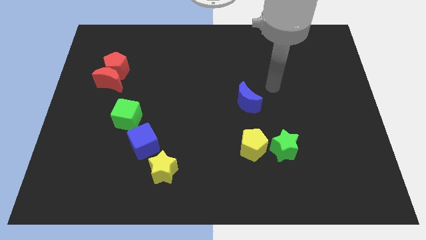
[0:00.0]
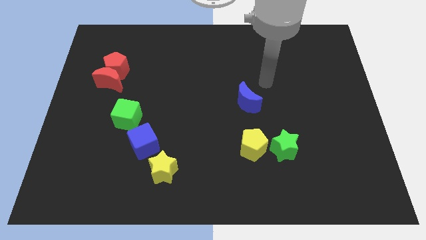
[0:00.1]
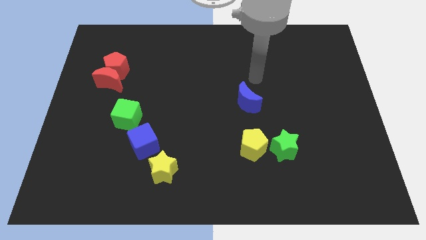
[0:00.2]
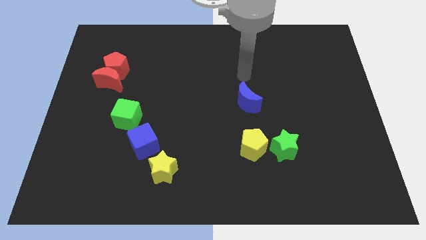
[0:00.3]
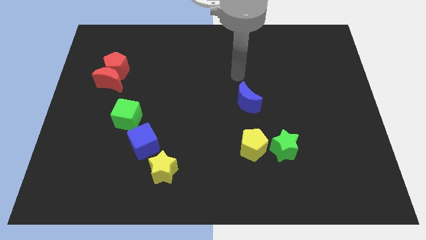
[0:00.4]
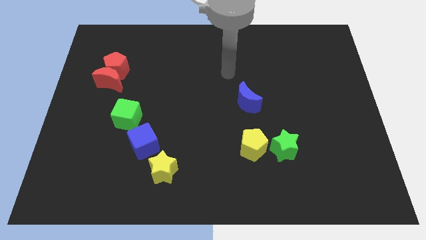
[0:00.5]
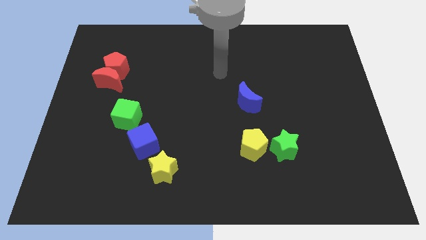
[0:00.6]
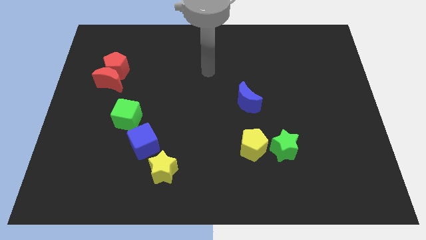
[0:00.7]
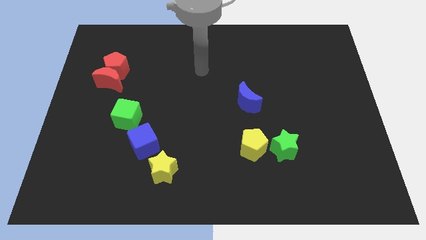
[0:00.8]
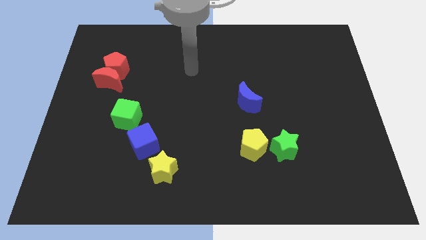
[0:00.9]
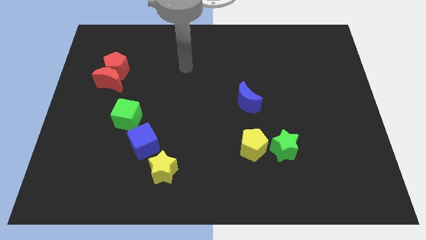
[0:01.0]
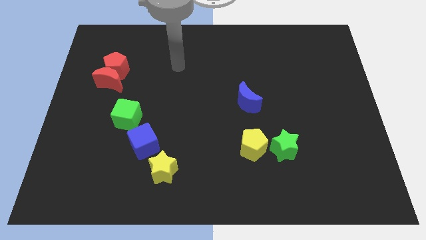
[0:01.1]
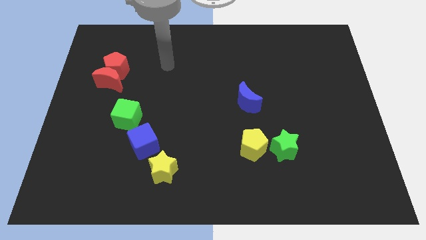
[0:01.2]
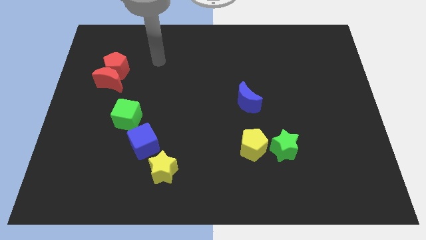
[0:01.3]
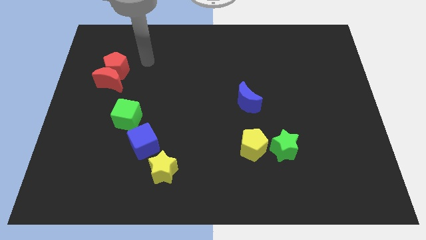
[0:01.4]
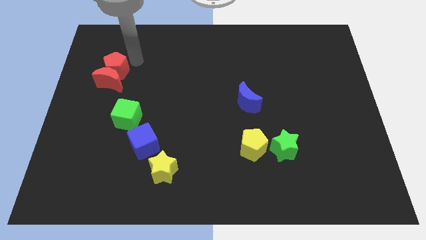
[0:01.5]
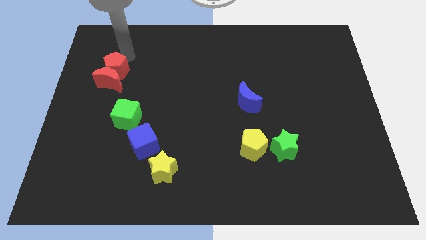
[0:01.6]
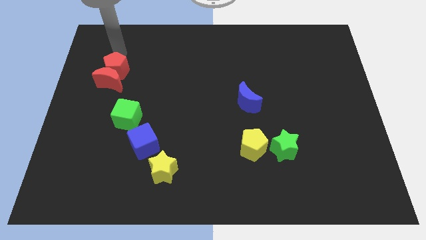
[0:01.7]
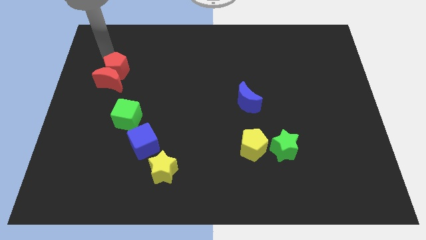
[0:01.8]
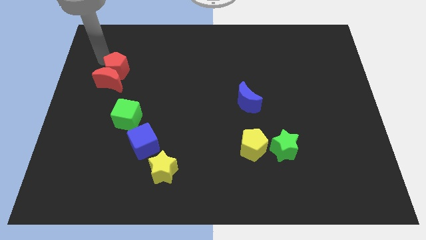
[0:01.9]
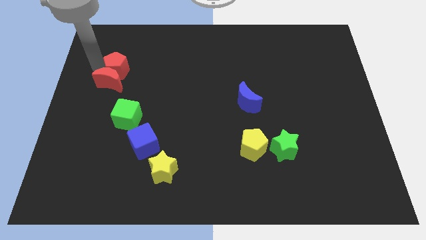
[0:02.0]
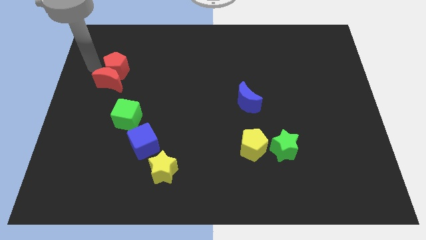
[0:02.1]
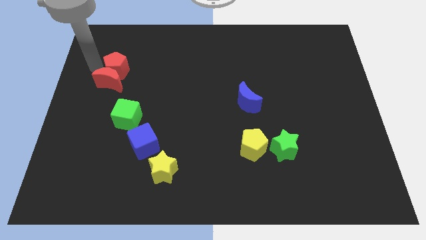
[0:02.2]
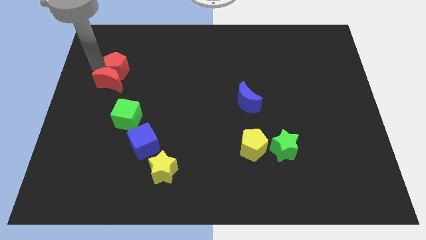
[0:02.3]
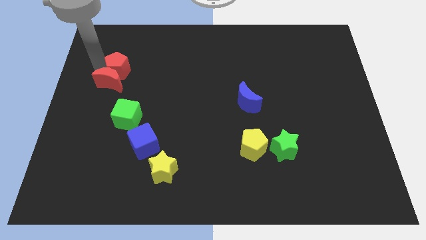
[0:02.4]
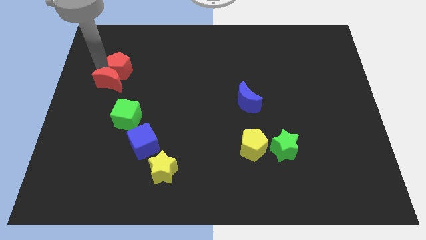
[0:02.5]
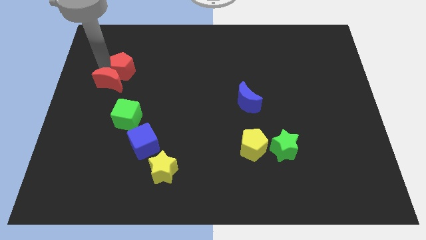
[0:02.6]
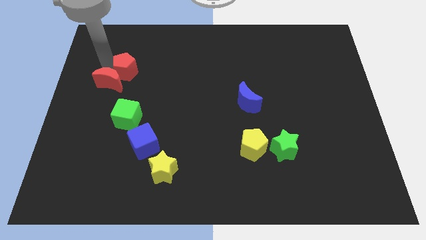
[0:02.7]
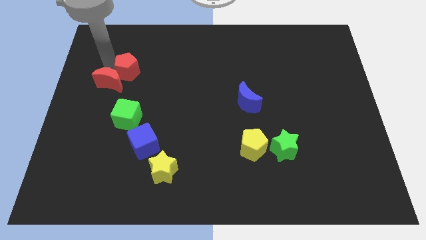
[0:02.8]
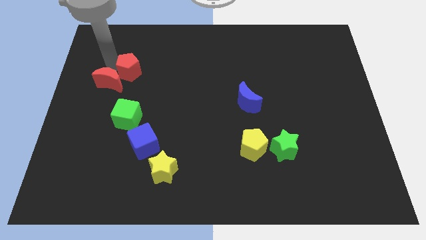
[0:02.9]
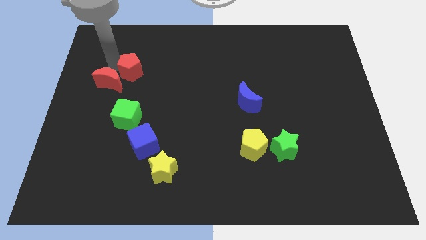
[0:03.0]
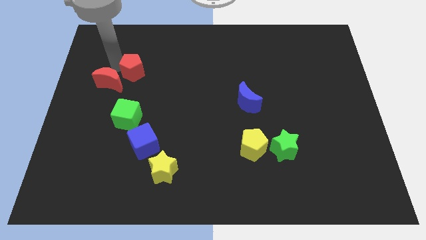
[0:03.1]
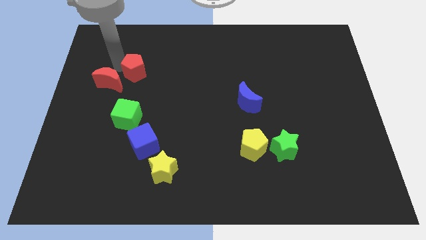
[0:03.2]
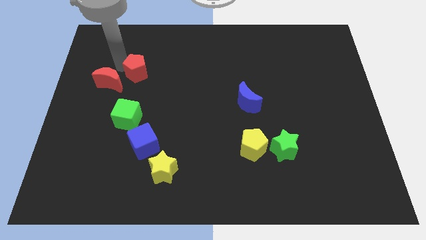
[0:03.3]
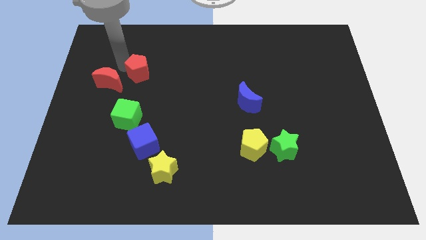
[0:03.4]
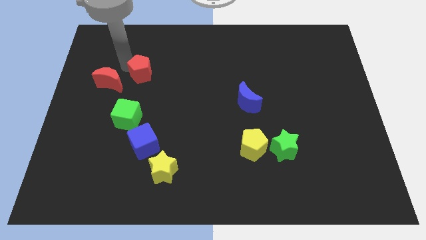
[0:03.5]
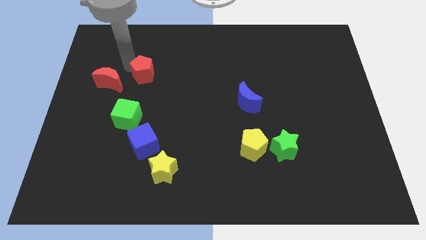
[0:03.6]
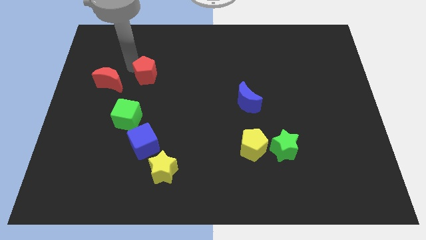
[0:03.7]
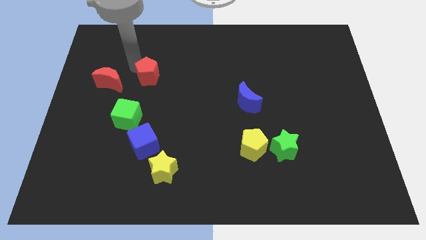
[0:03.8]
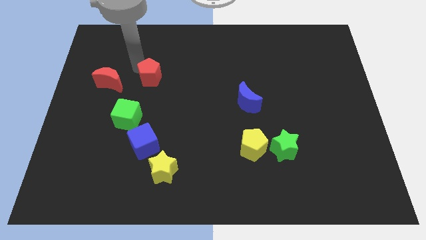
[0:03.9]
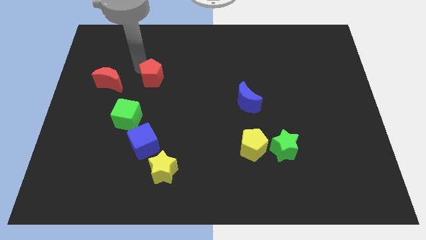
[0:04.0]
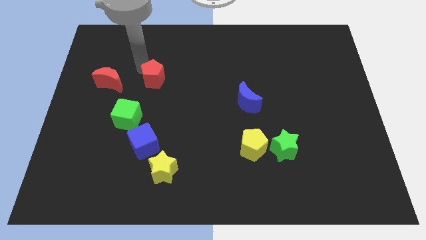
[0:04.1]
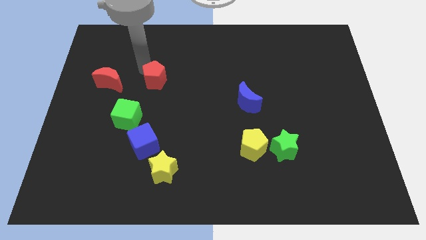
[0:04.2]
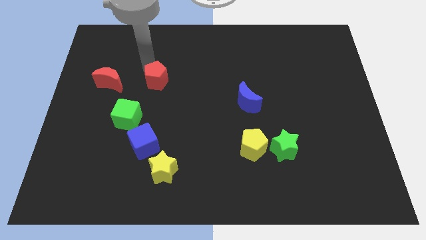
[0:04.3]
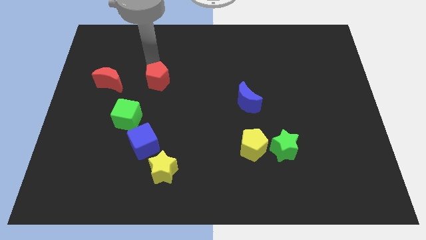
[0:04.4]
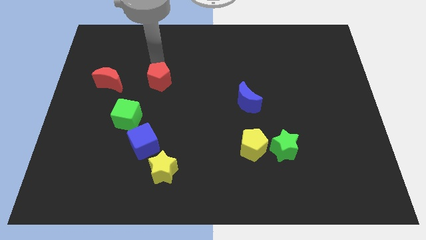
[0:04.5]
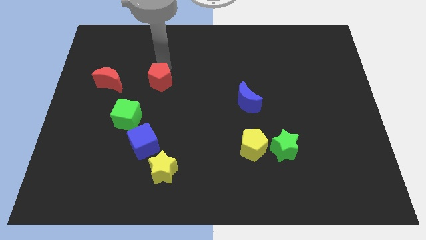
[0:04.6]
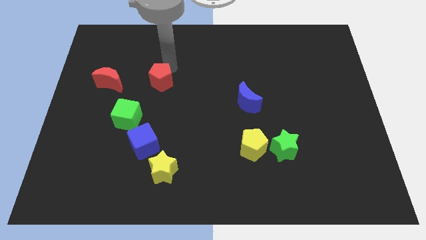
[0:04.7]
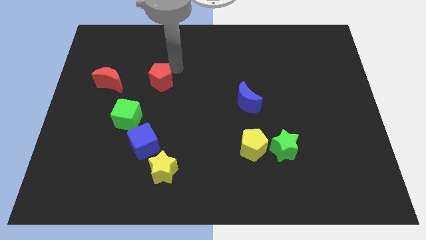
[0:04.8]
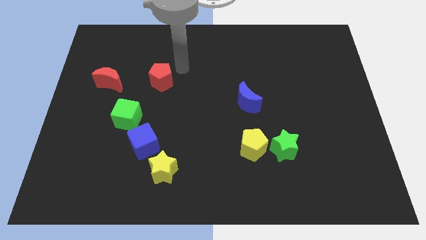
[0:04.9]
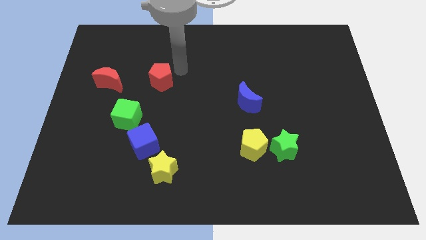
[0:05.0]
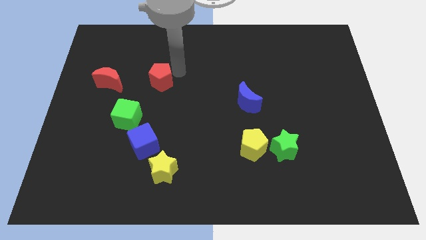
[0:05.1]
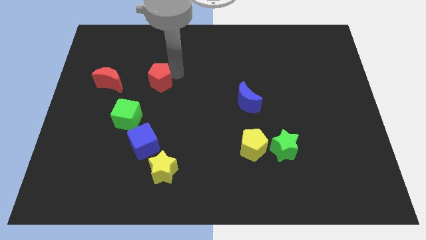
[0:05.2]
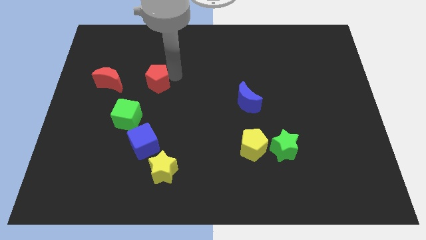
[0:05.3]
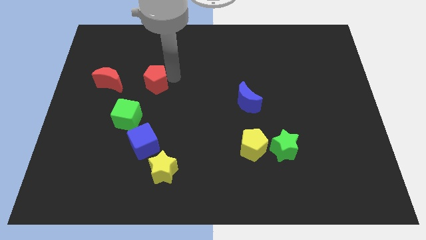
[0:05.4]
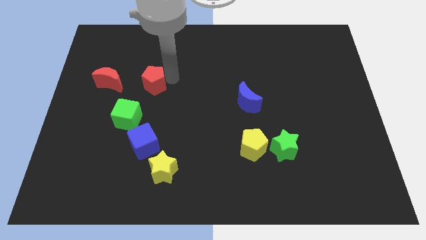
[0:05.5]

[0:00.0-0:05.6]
move the red pentagon to the top right side of the green cube

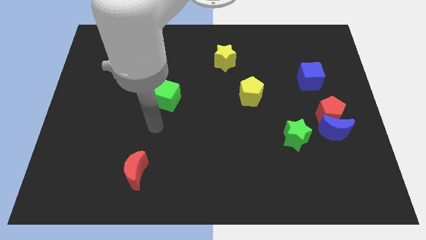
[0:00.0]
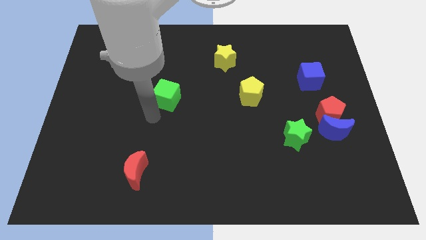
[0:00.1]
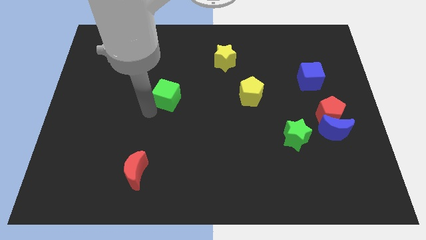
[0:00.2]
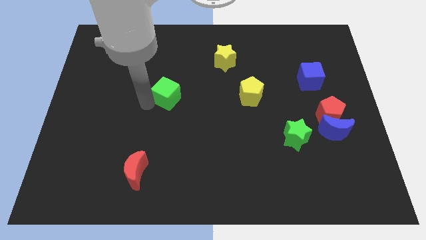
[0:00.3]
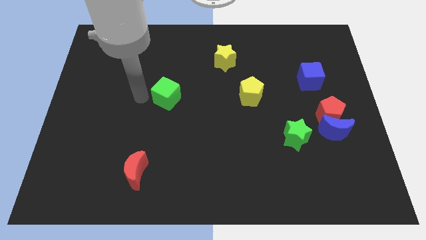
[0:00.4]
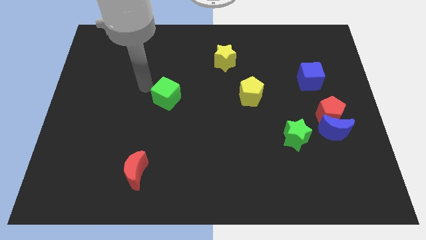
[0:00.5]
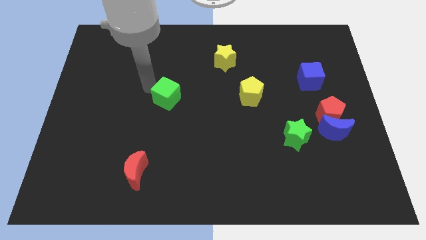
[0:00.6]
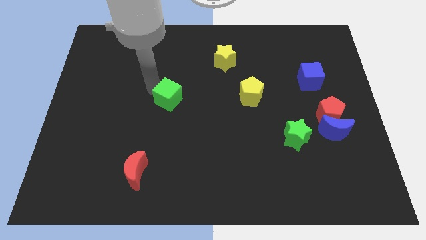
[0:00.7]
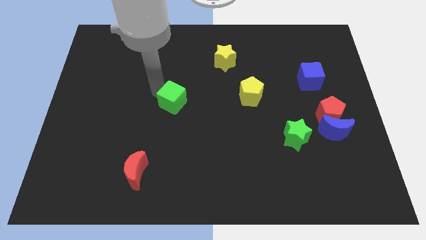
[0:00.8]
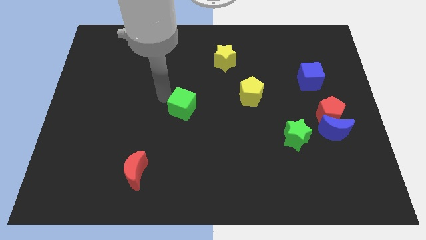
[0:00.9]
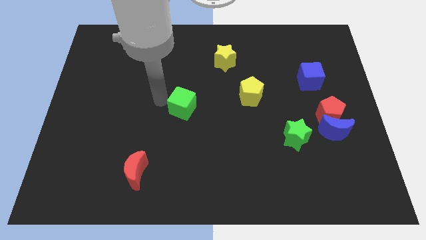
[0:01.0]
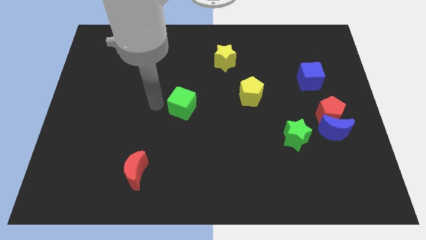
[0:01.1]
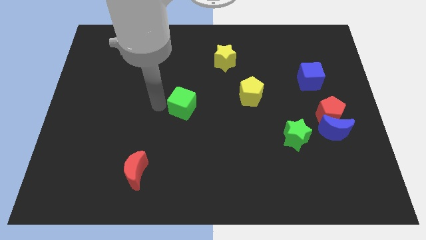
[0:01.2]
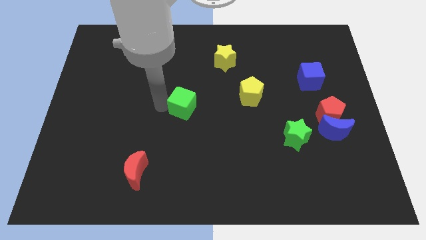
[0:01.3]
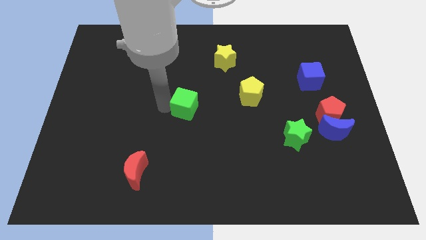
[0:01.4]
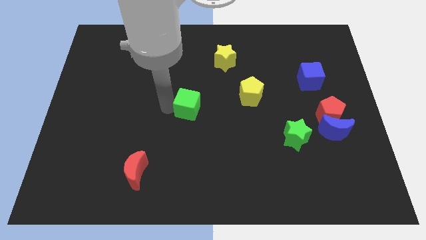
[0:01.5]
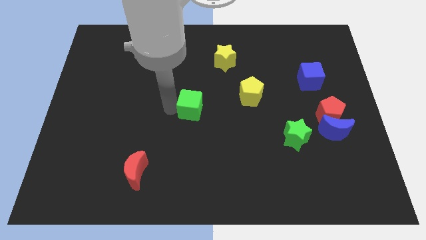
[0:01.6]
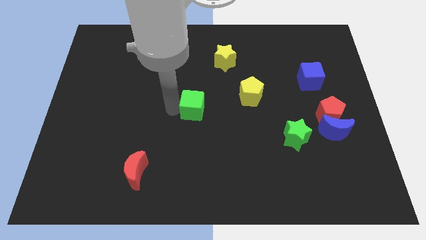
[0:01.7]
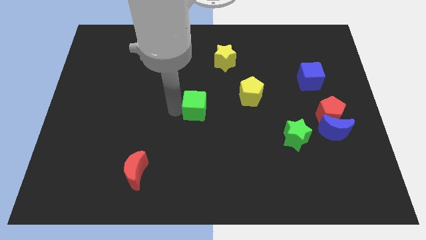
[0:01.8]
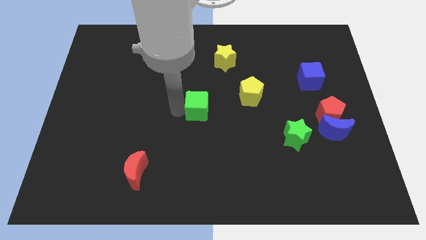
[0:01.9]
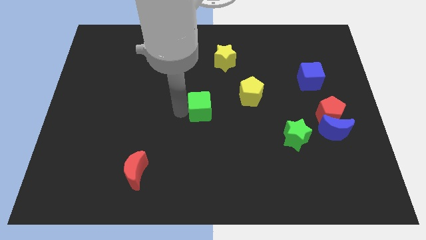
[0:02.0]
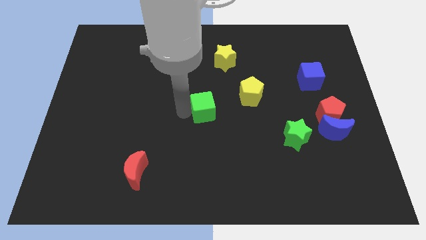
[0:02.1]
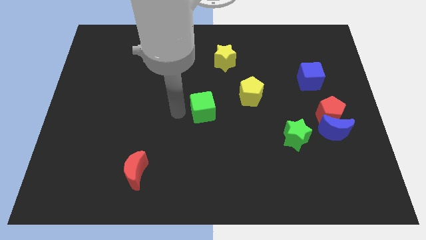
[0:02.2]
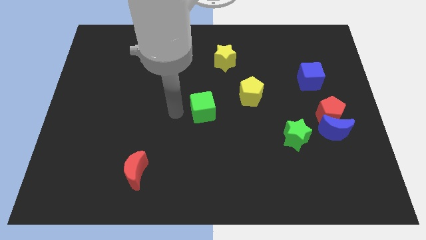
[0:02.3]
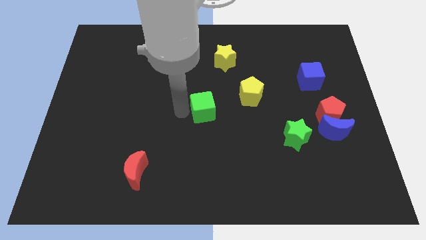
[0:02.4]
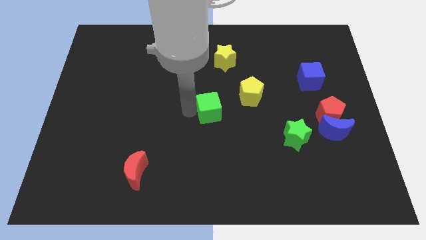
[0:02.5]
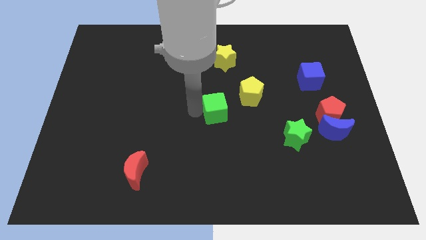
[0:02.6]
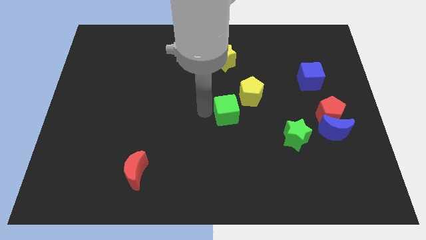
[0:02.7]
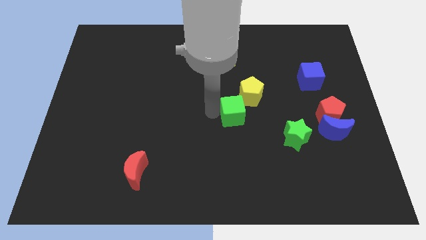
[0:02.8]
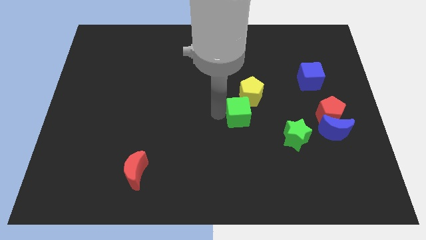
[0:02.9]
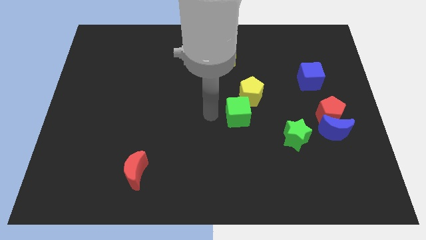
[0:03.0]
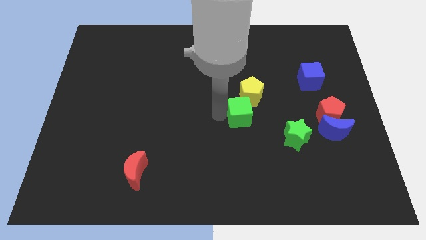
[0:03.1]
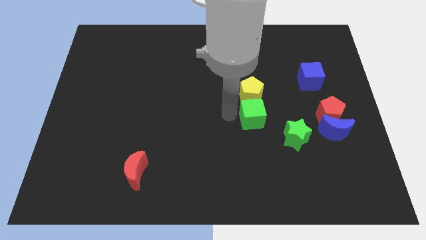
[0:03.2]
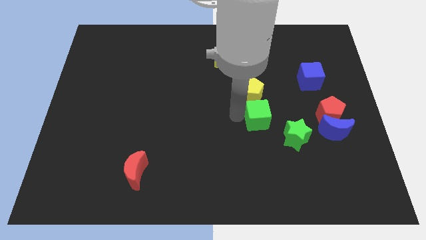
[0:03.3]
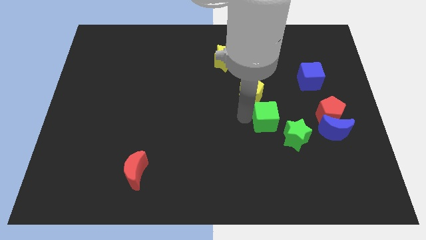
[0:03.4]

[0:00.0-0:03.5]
move the green cube just left of the red pentagon
